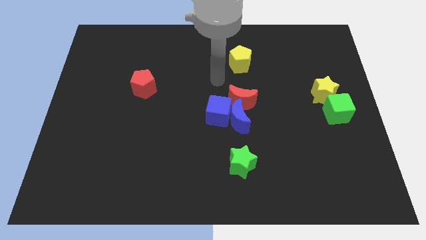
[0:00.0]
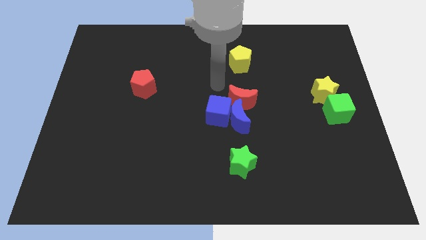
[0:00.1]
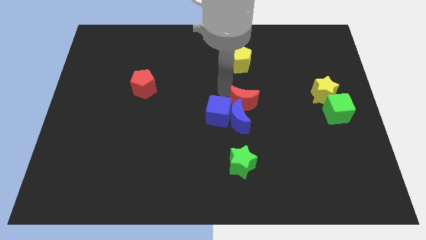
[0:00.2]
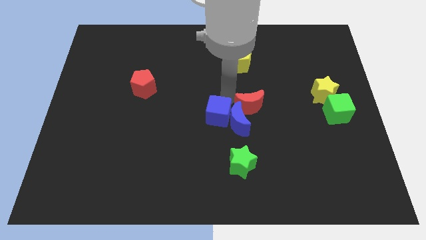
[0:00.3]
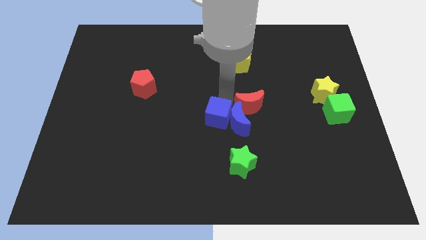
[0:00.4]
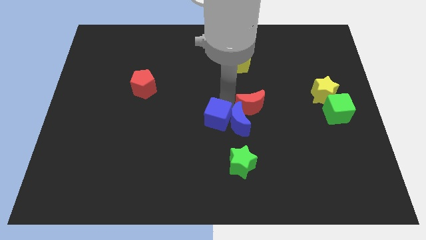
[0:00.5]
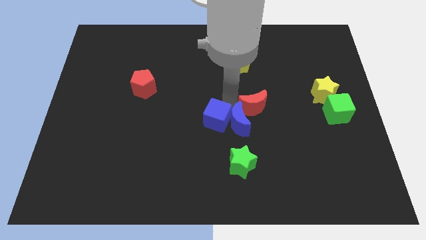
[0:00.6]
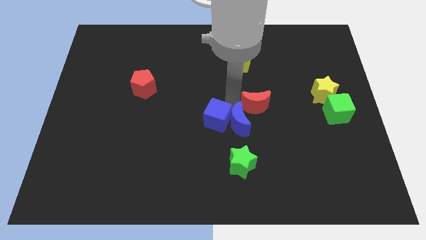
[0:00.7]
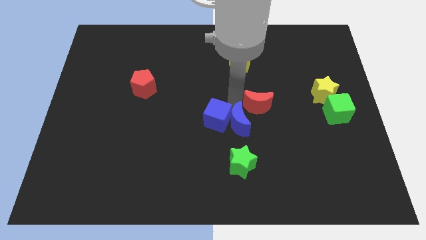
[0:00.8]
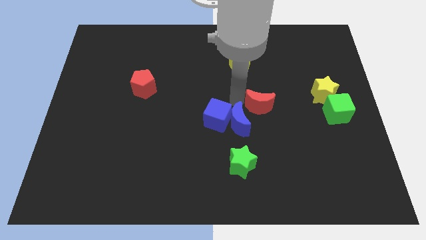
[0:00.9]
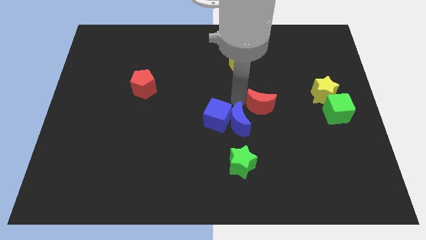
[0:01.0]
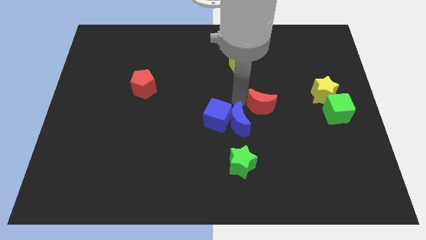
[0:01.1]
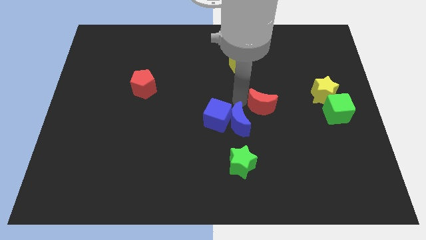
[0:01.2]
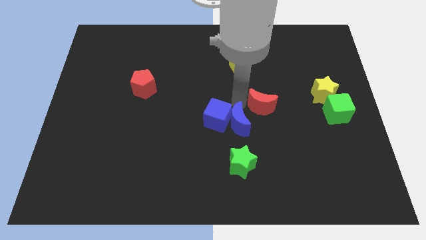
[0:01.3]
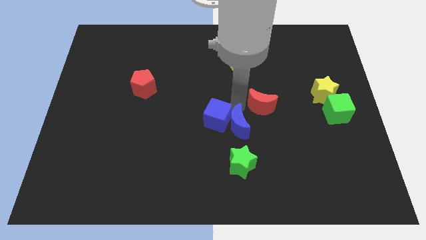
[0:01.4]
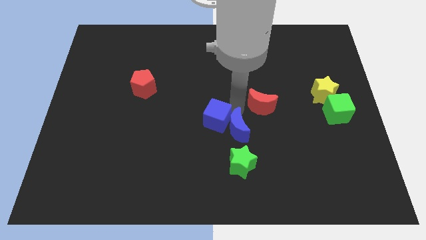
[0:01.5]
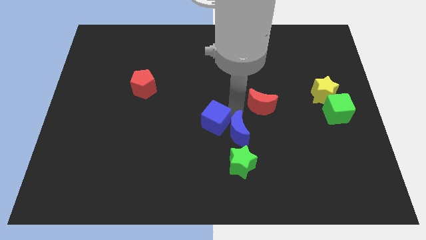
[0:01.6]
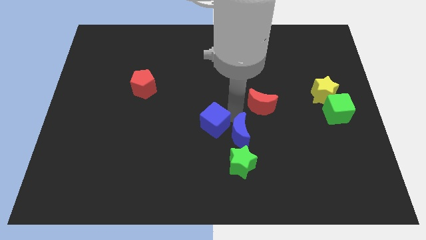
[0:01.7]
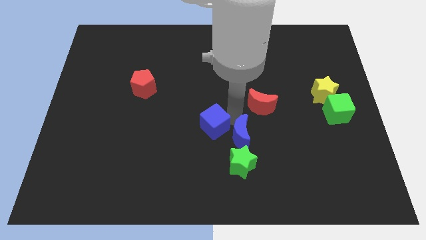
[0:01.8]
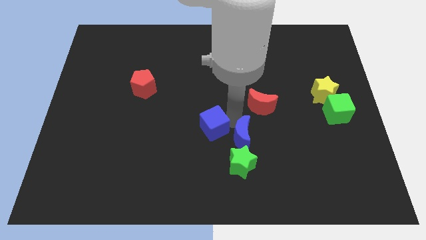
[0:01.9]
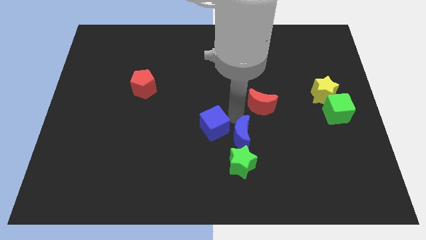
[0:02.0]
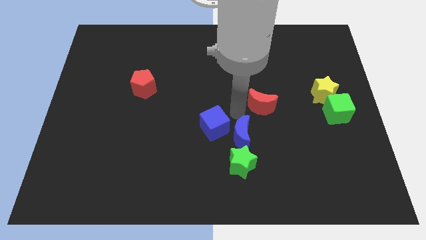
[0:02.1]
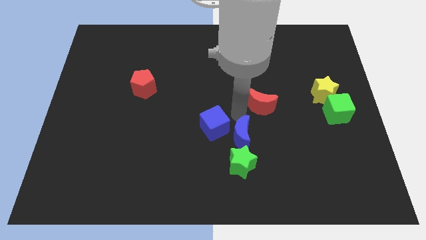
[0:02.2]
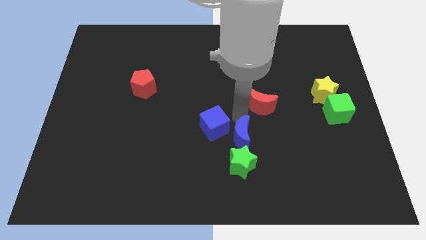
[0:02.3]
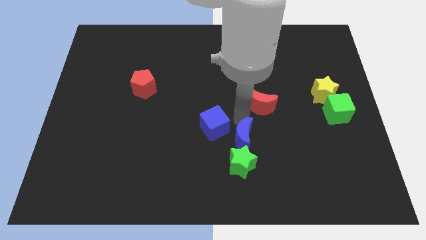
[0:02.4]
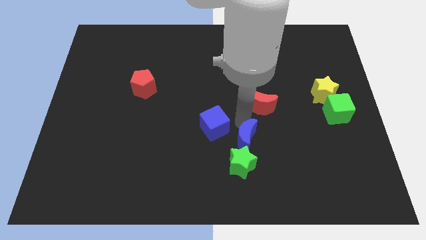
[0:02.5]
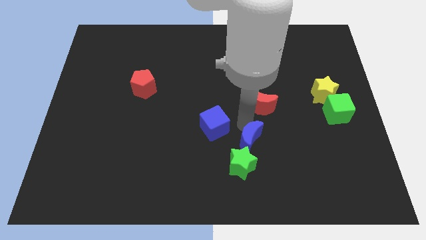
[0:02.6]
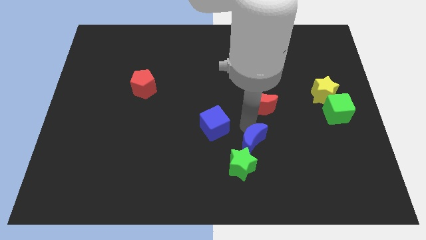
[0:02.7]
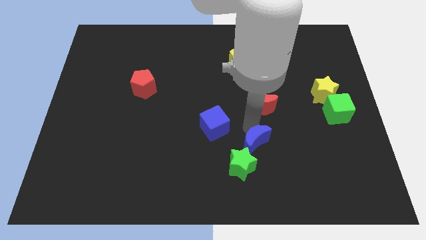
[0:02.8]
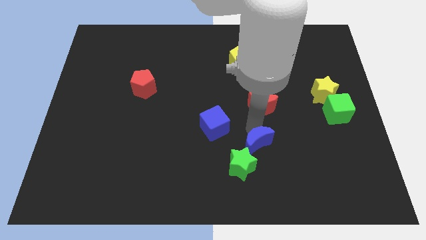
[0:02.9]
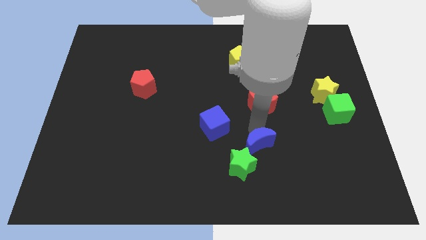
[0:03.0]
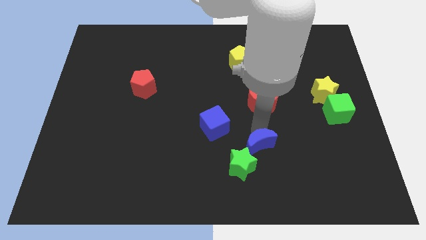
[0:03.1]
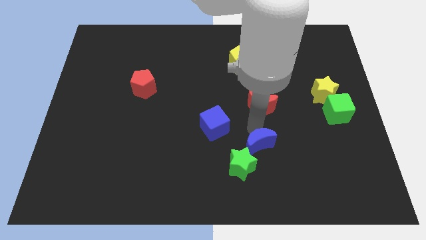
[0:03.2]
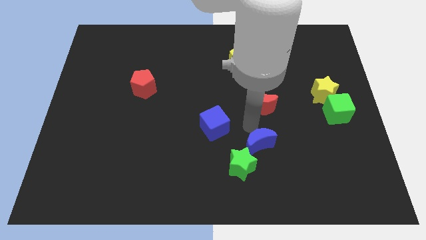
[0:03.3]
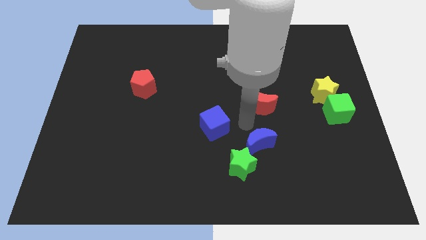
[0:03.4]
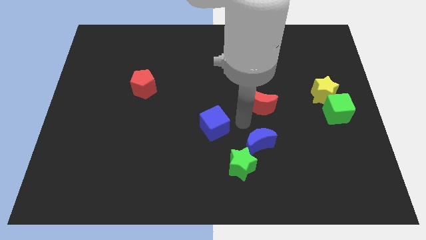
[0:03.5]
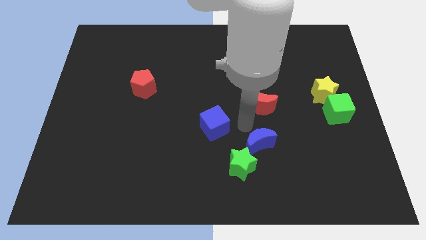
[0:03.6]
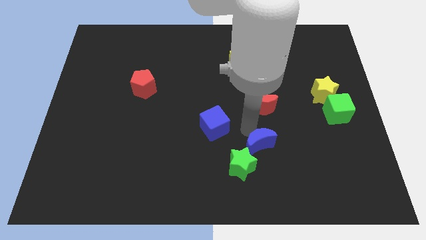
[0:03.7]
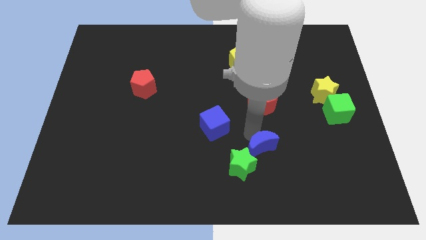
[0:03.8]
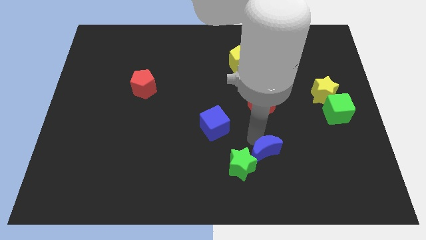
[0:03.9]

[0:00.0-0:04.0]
pull the blue moon apart from the blue cube and red moon

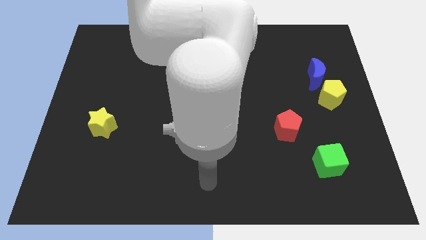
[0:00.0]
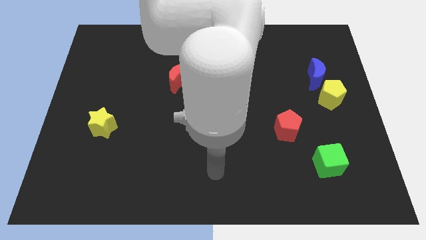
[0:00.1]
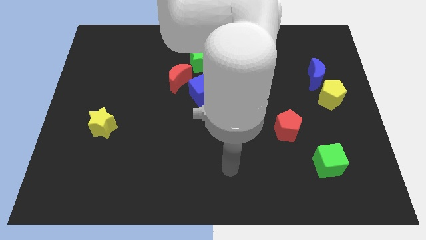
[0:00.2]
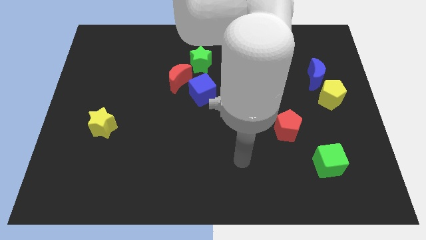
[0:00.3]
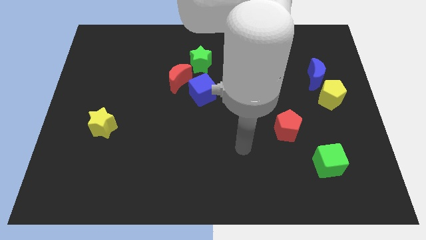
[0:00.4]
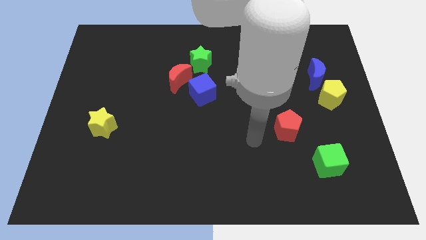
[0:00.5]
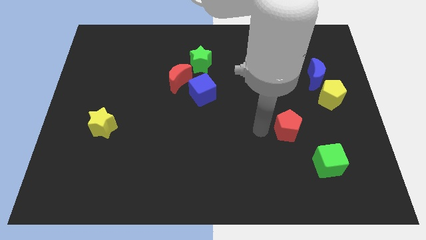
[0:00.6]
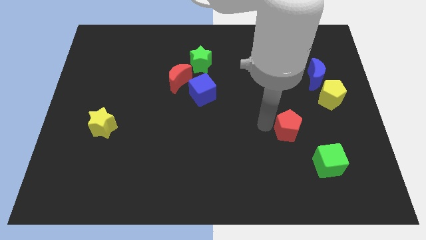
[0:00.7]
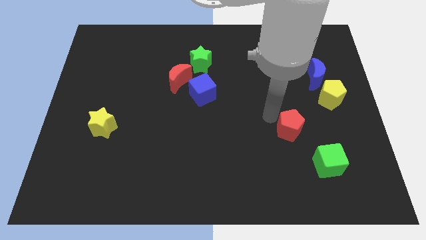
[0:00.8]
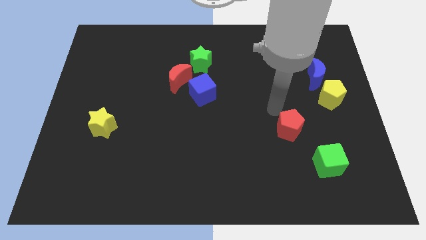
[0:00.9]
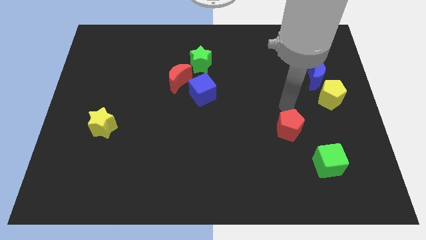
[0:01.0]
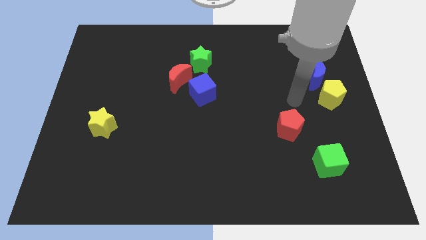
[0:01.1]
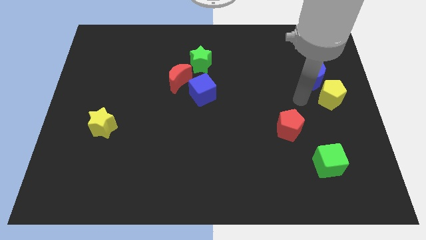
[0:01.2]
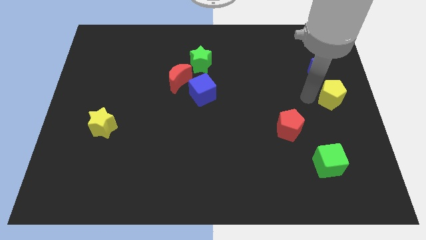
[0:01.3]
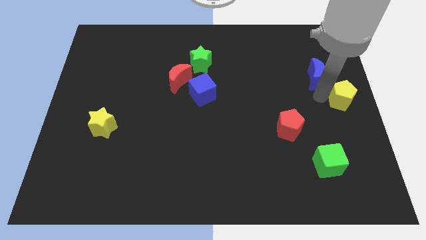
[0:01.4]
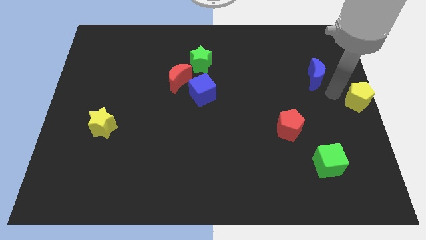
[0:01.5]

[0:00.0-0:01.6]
move the blue moon away from the yellow pentagon

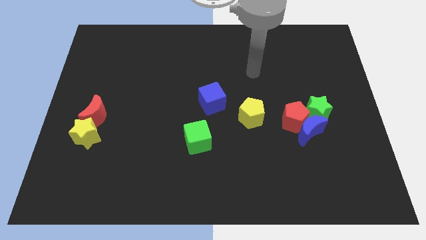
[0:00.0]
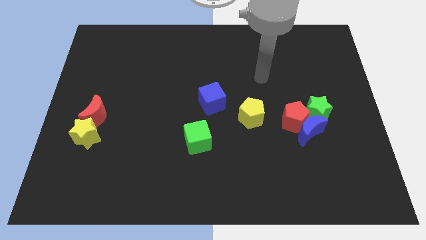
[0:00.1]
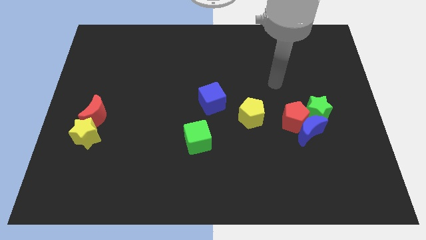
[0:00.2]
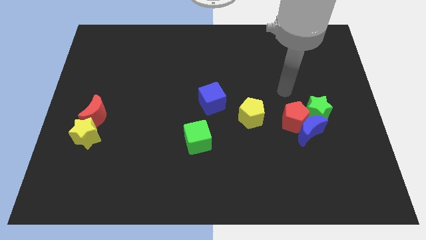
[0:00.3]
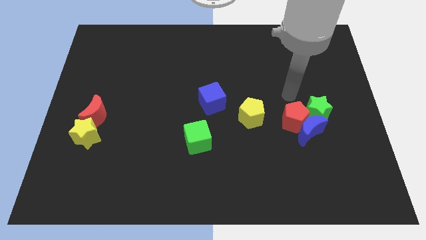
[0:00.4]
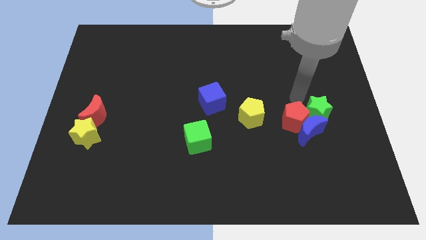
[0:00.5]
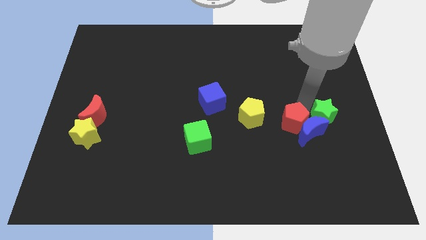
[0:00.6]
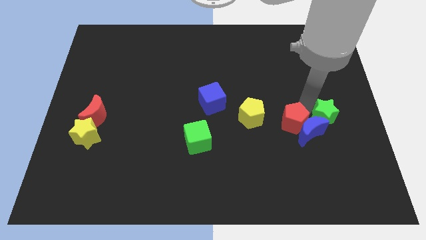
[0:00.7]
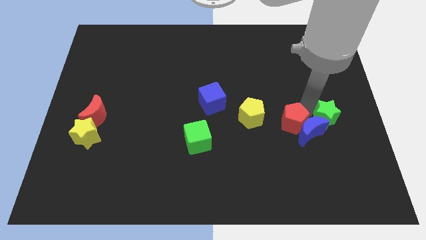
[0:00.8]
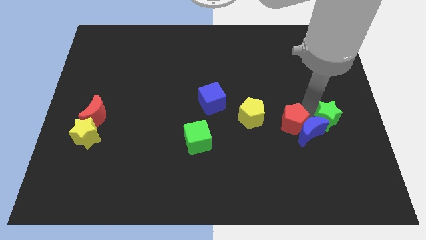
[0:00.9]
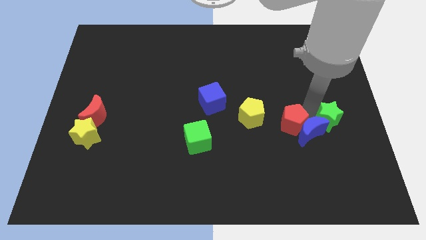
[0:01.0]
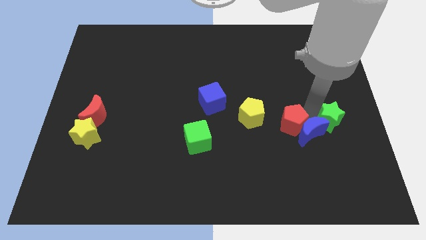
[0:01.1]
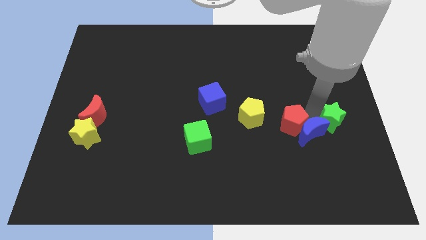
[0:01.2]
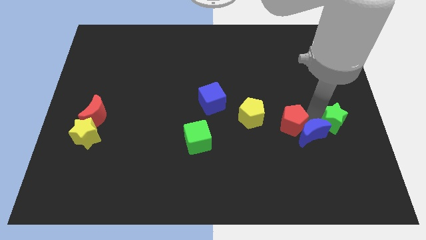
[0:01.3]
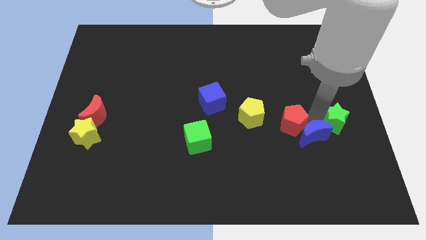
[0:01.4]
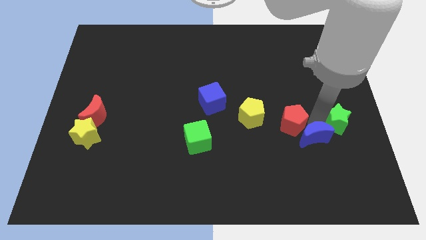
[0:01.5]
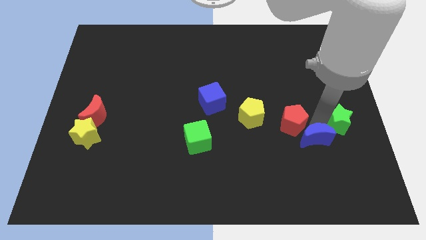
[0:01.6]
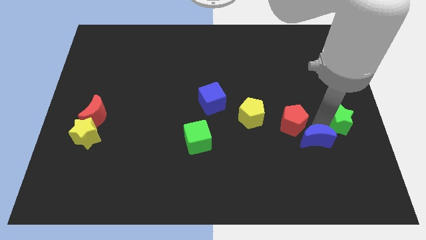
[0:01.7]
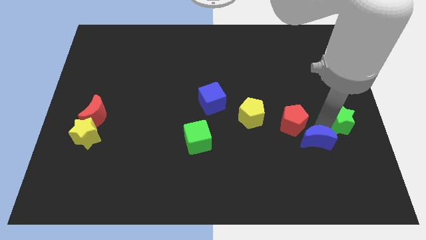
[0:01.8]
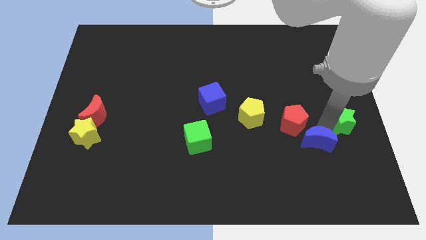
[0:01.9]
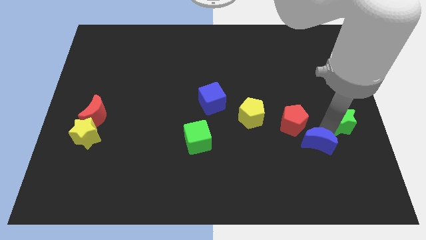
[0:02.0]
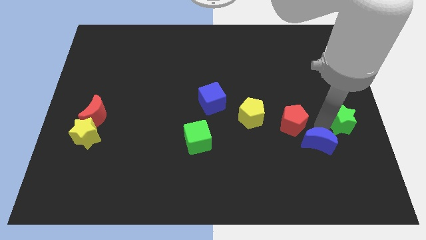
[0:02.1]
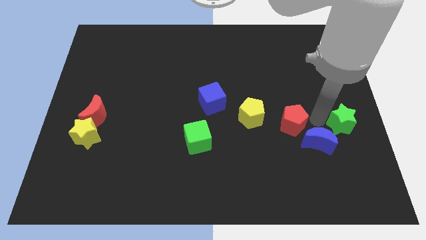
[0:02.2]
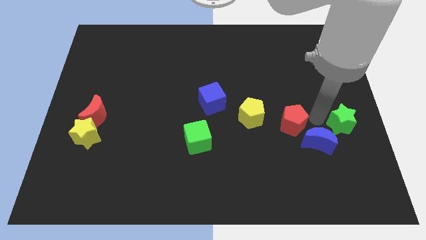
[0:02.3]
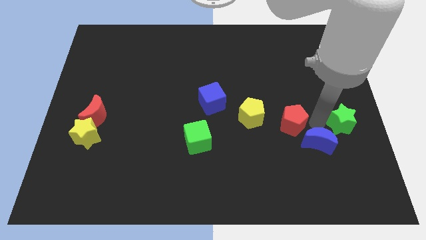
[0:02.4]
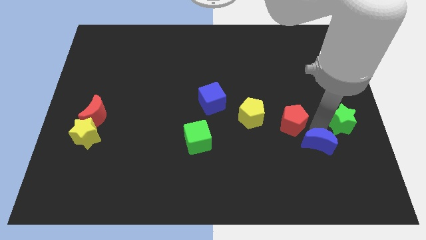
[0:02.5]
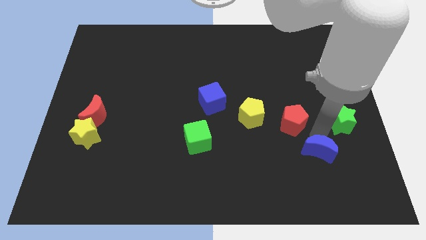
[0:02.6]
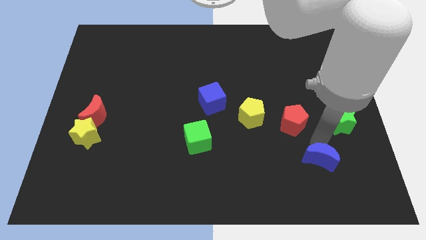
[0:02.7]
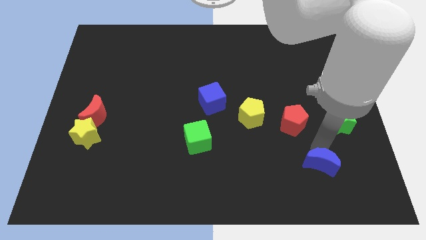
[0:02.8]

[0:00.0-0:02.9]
separate the blue moon from the red pentagon and green star

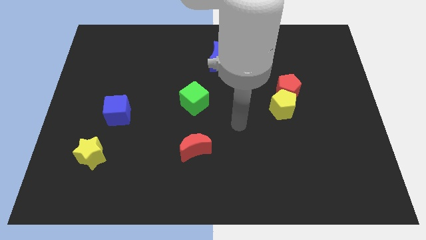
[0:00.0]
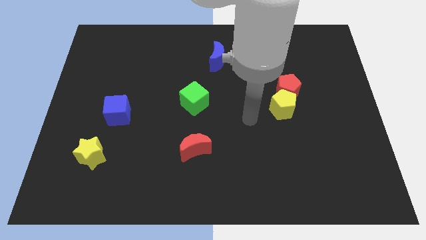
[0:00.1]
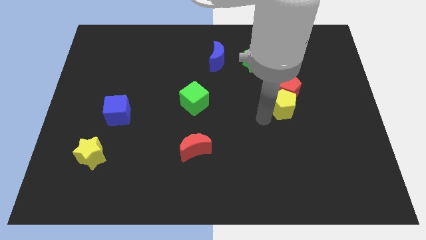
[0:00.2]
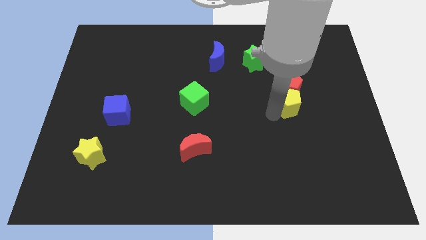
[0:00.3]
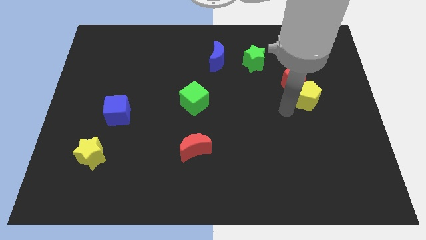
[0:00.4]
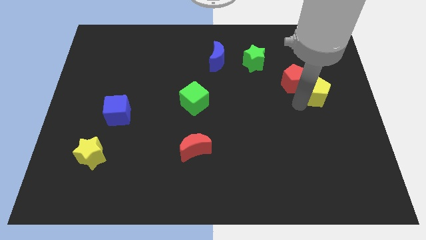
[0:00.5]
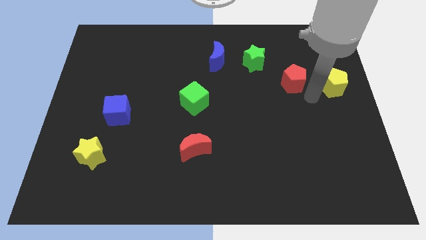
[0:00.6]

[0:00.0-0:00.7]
pull the red pentagon apart from the yellow pentagon
